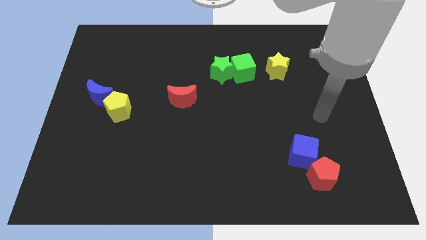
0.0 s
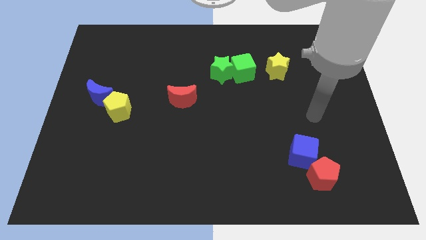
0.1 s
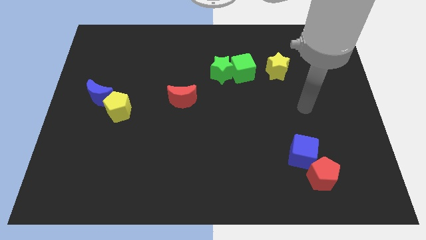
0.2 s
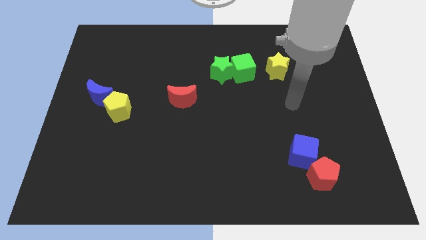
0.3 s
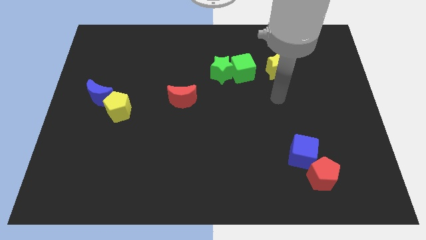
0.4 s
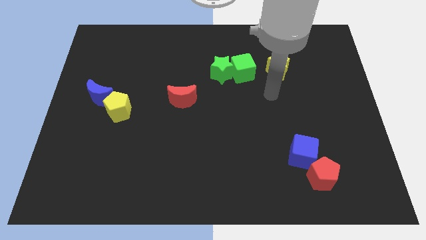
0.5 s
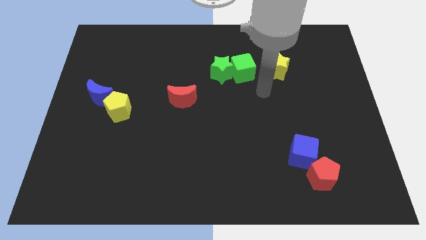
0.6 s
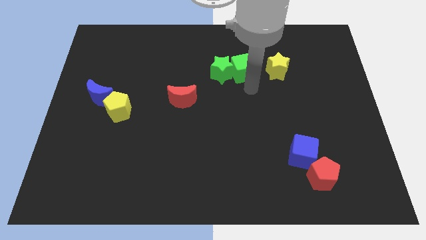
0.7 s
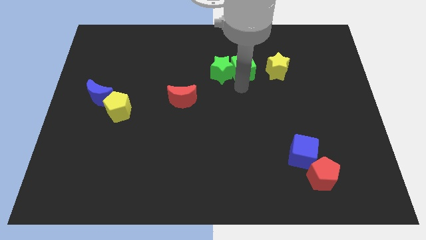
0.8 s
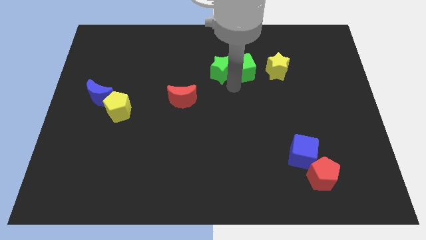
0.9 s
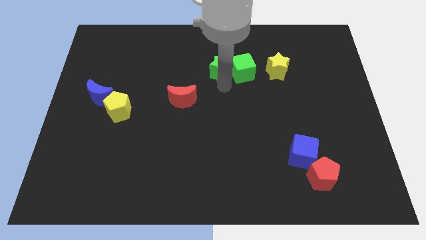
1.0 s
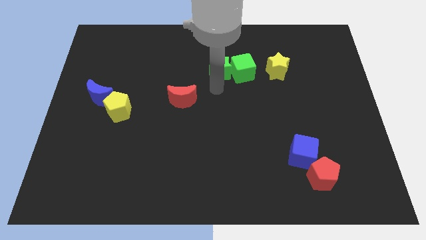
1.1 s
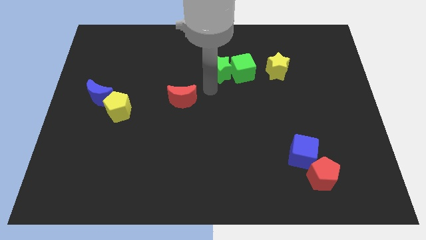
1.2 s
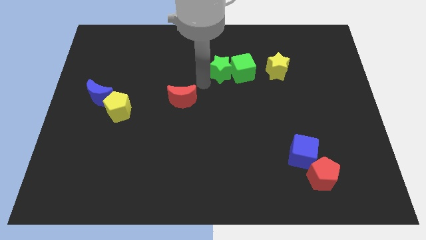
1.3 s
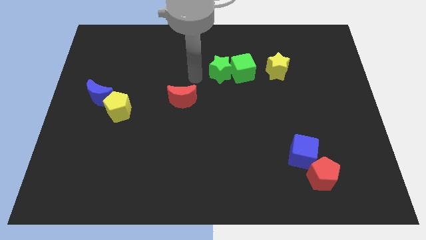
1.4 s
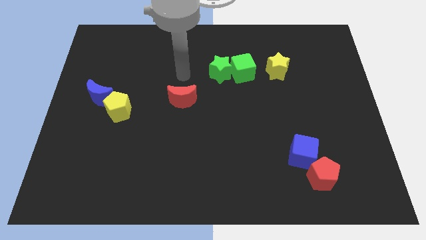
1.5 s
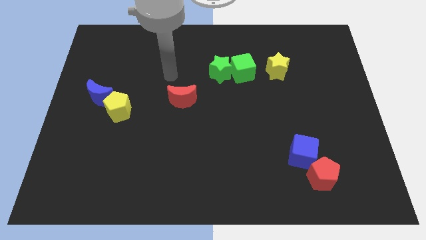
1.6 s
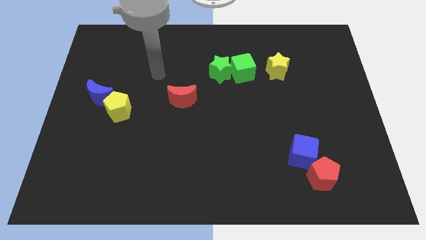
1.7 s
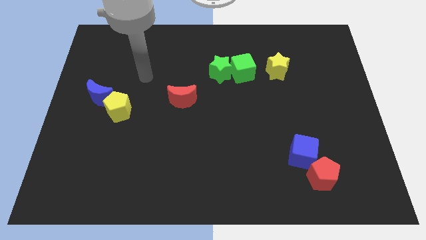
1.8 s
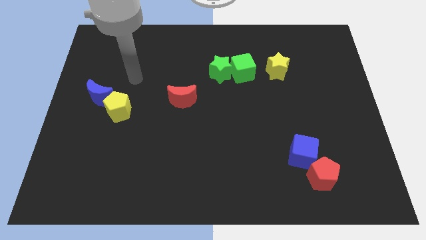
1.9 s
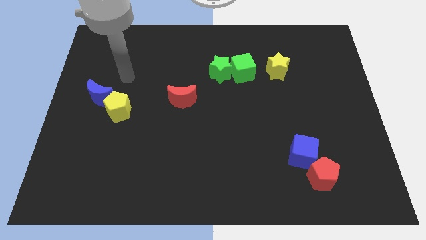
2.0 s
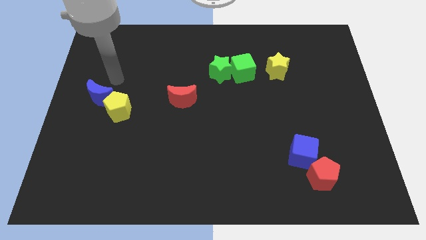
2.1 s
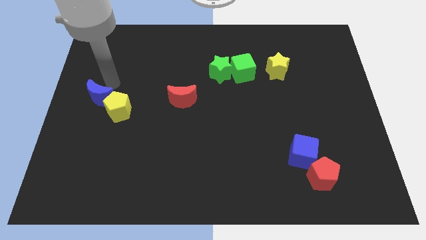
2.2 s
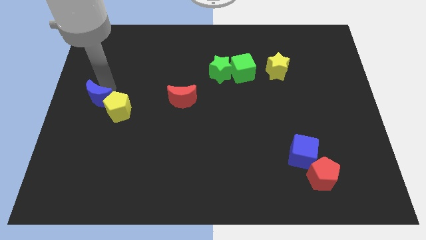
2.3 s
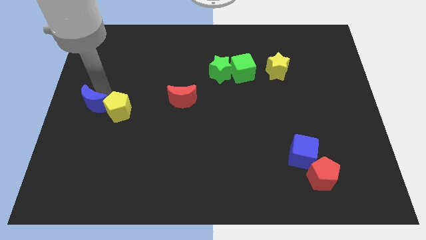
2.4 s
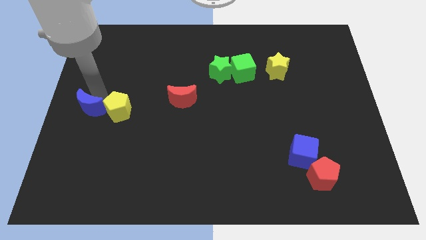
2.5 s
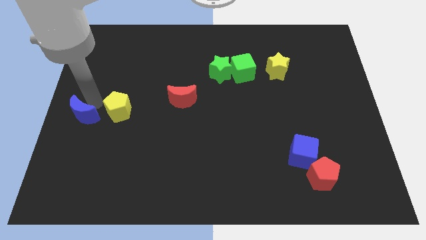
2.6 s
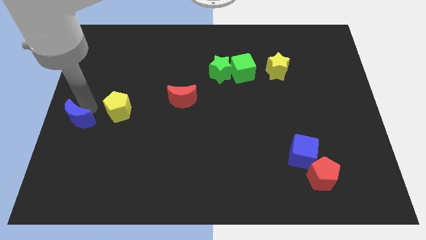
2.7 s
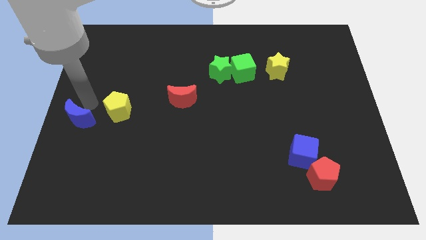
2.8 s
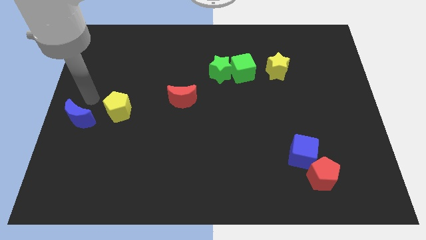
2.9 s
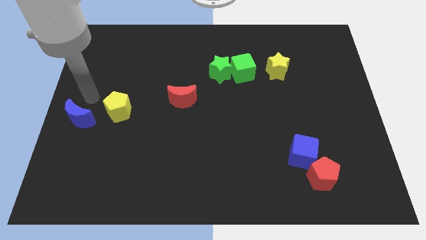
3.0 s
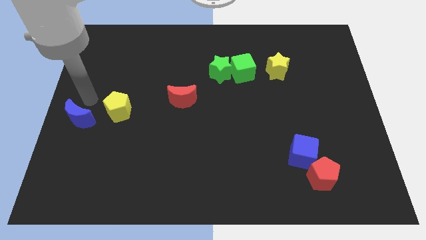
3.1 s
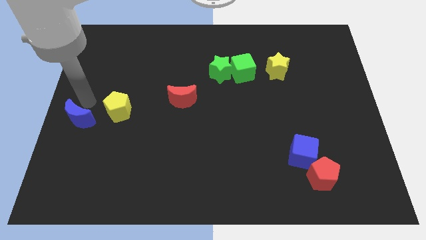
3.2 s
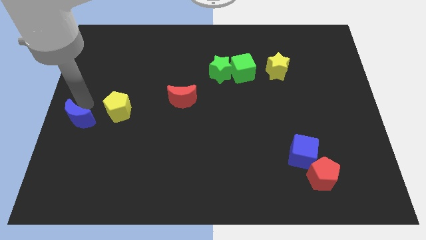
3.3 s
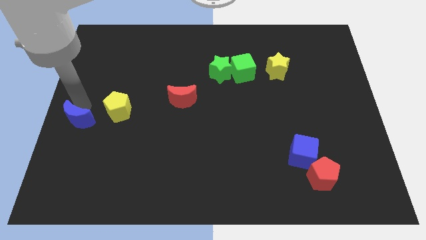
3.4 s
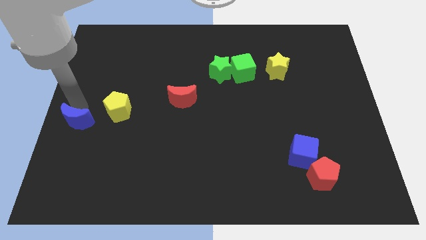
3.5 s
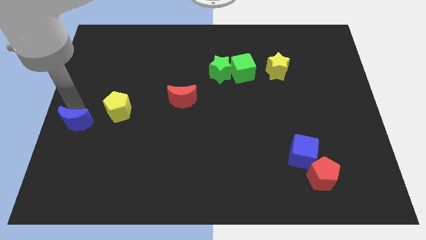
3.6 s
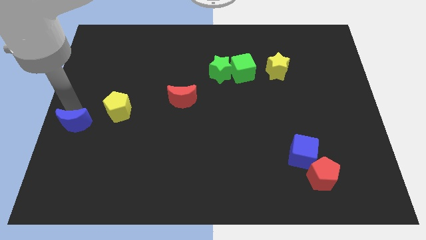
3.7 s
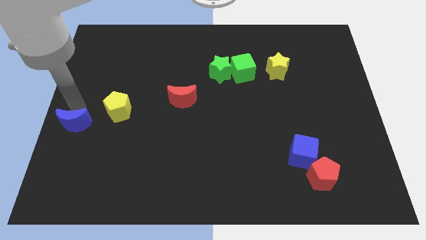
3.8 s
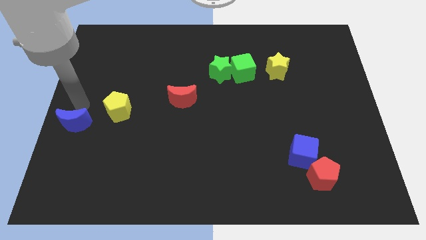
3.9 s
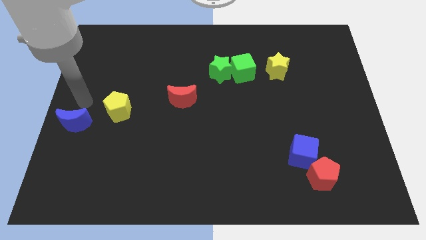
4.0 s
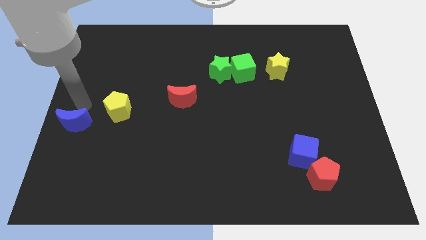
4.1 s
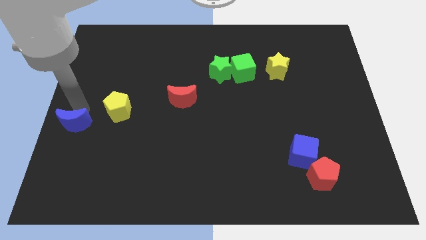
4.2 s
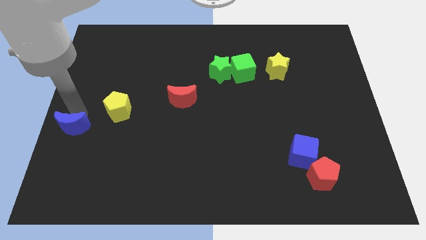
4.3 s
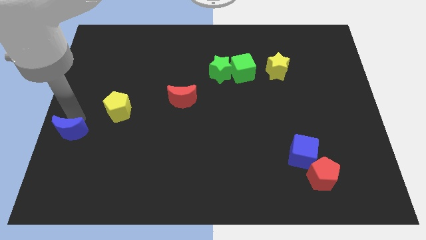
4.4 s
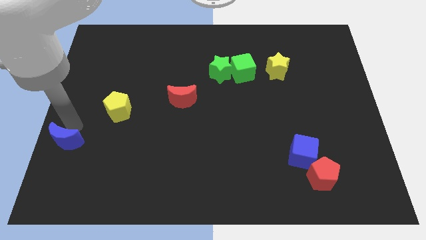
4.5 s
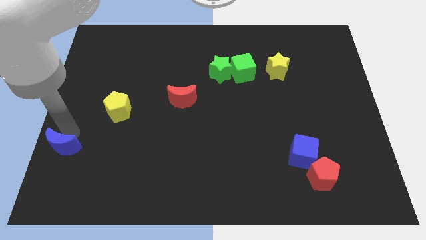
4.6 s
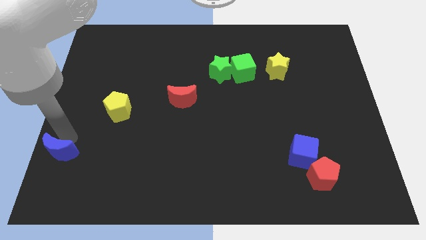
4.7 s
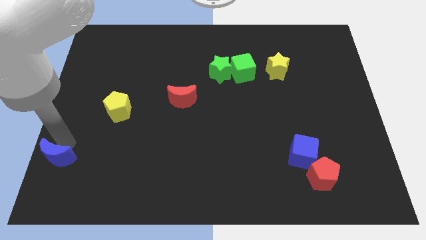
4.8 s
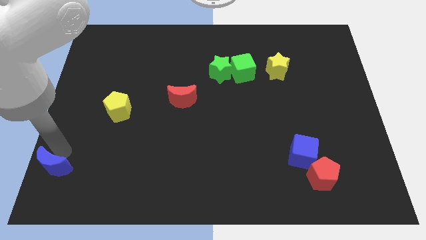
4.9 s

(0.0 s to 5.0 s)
move the blue moon to the bottom left

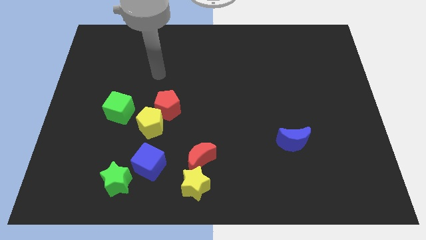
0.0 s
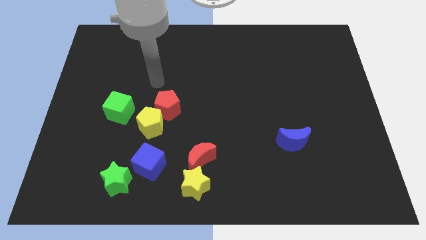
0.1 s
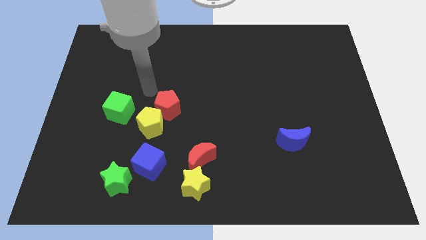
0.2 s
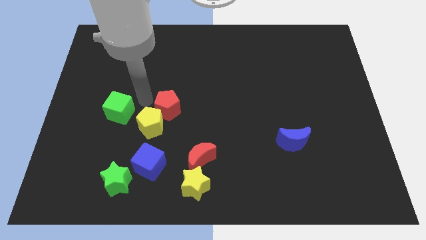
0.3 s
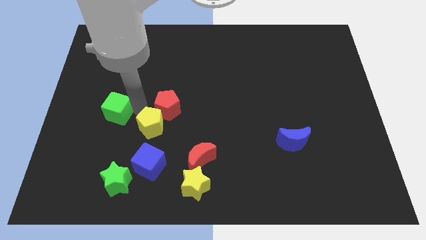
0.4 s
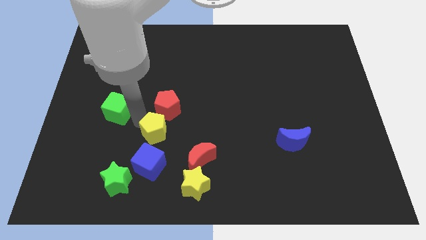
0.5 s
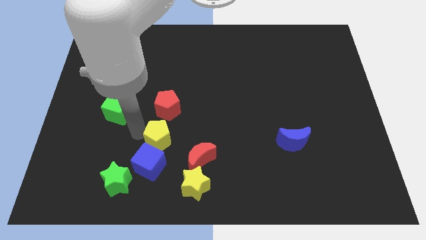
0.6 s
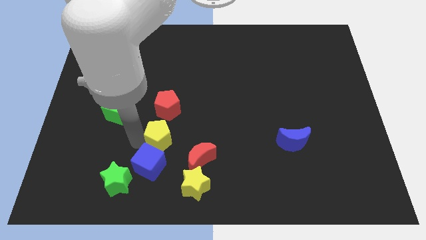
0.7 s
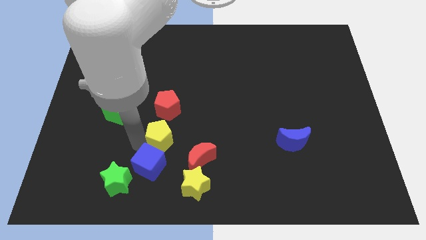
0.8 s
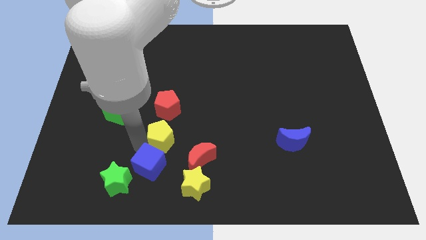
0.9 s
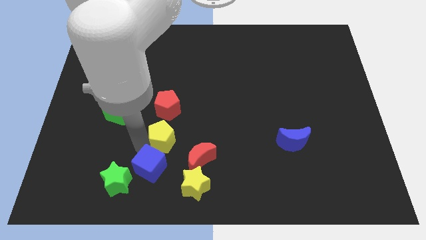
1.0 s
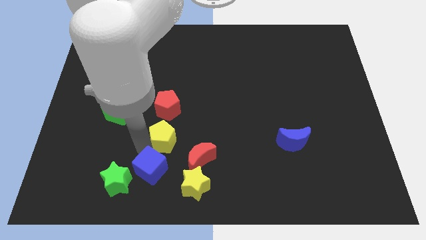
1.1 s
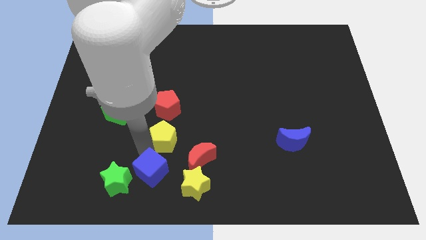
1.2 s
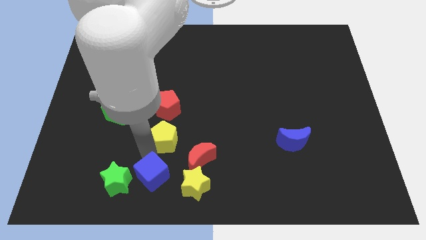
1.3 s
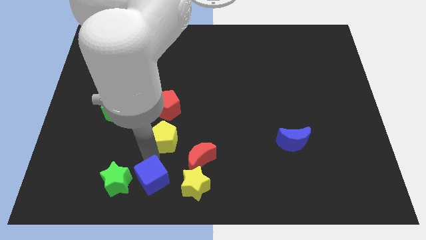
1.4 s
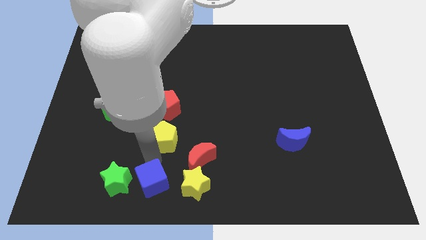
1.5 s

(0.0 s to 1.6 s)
slide the blue cube to the bottom side
